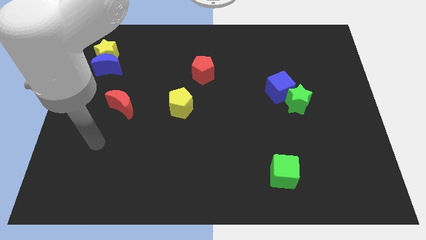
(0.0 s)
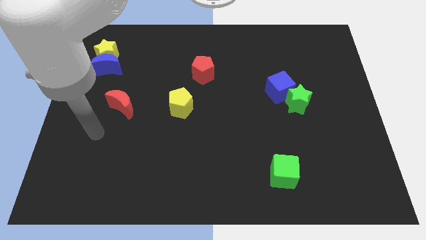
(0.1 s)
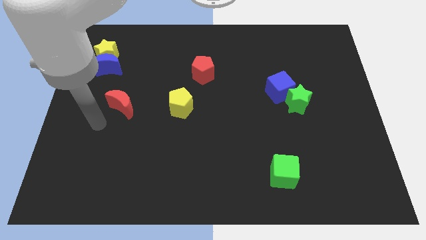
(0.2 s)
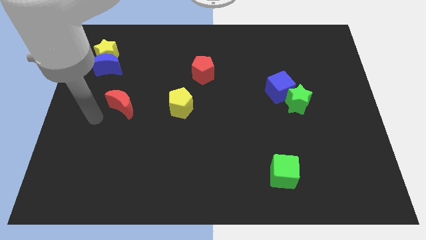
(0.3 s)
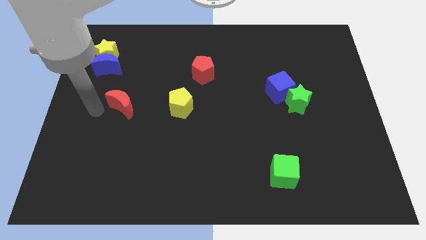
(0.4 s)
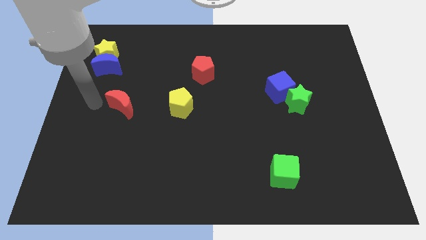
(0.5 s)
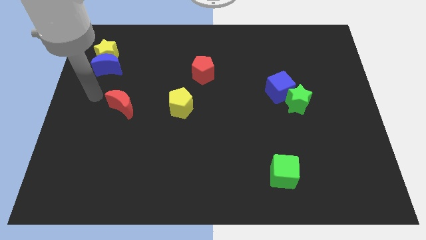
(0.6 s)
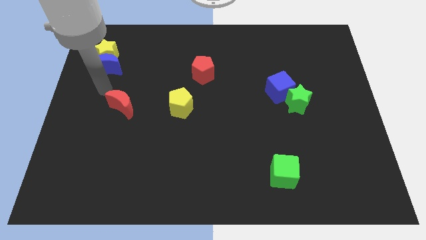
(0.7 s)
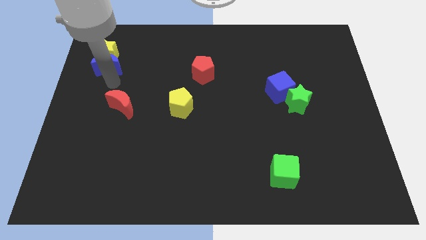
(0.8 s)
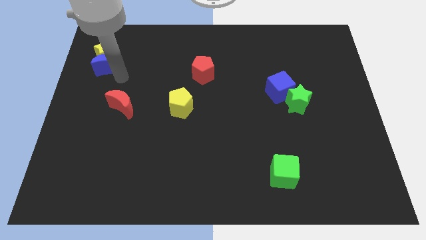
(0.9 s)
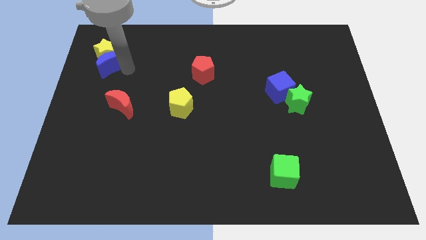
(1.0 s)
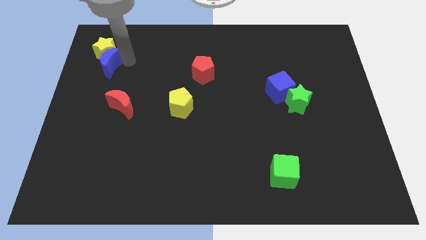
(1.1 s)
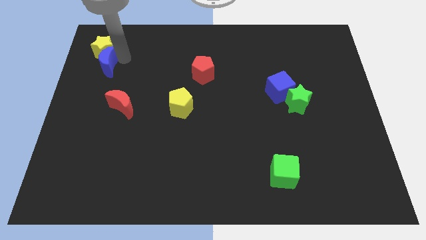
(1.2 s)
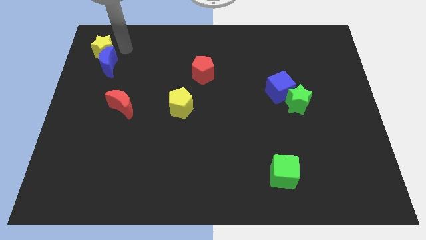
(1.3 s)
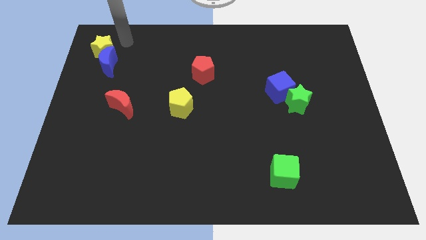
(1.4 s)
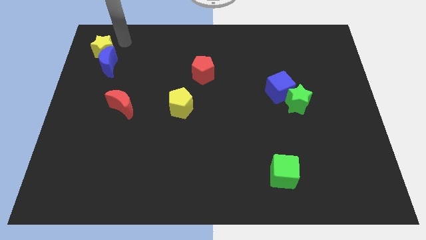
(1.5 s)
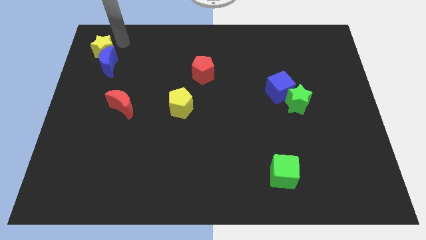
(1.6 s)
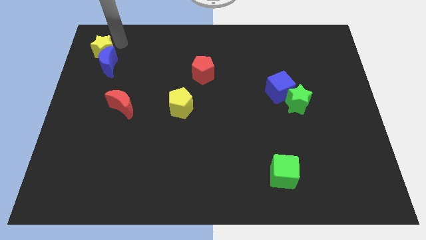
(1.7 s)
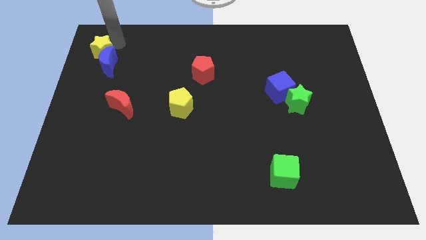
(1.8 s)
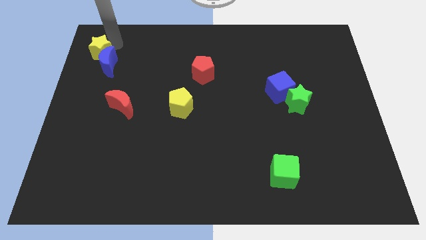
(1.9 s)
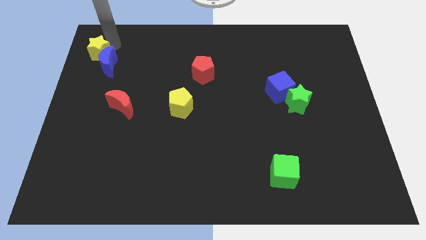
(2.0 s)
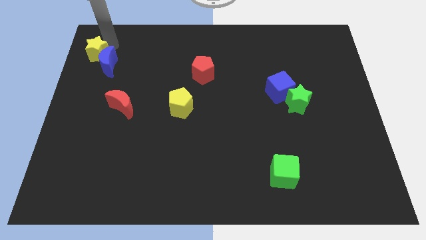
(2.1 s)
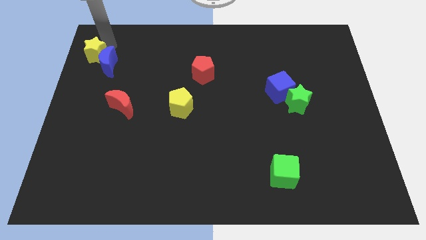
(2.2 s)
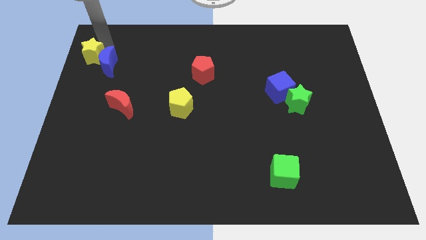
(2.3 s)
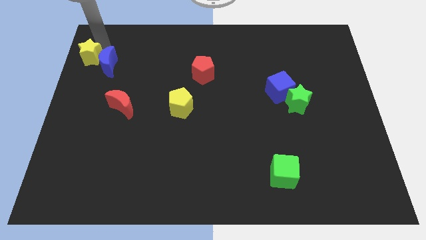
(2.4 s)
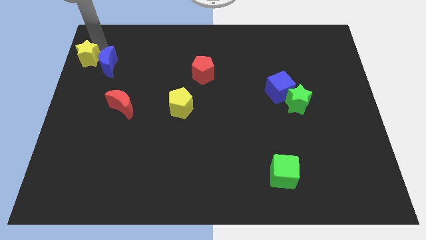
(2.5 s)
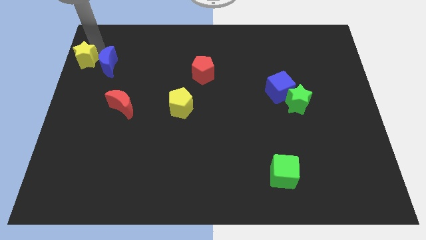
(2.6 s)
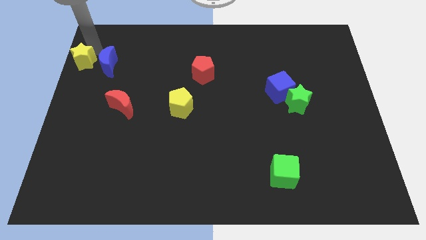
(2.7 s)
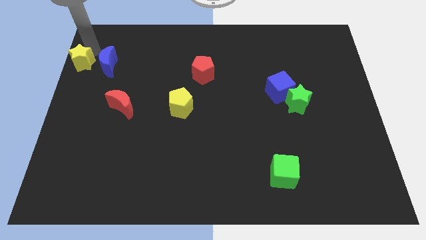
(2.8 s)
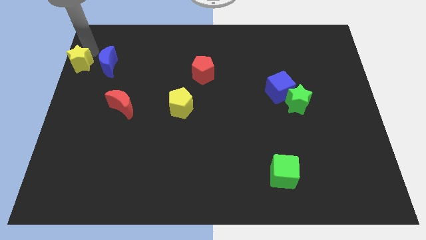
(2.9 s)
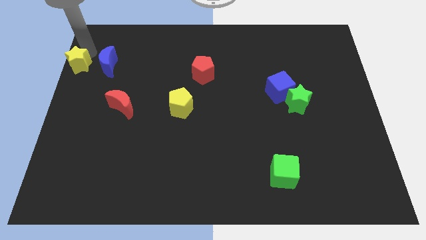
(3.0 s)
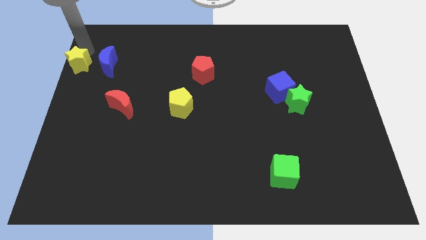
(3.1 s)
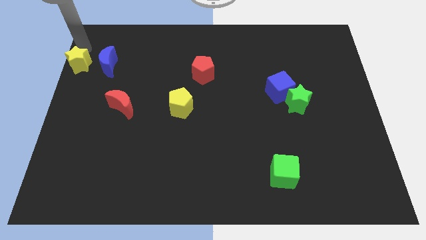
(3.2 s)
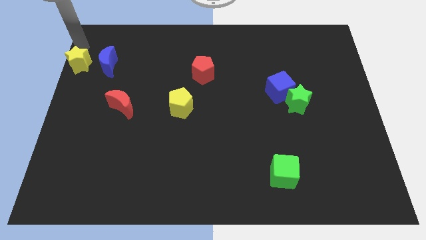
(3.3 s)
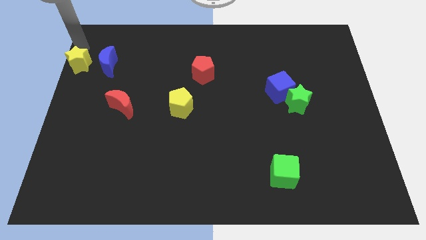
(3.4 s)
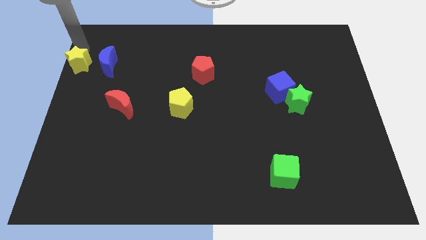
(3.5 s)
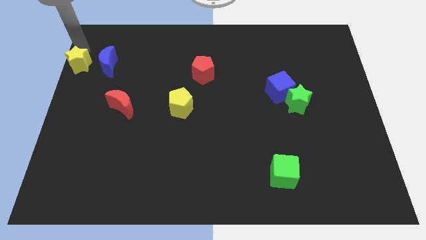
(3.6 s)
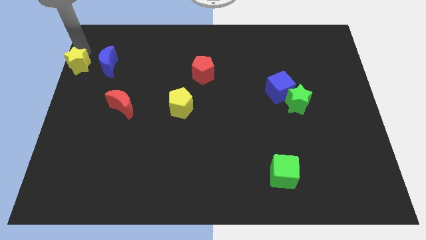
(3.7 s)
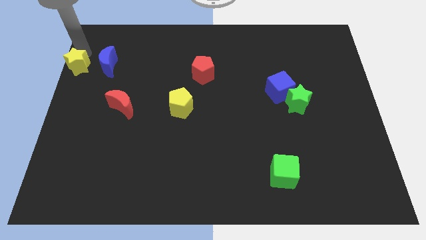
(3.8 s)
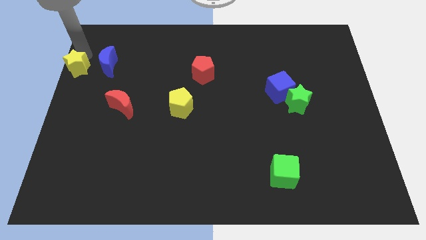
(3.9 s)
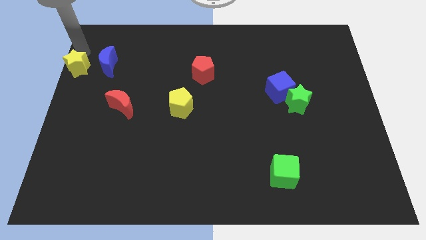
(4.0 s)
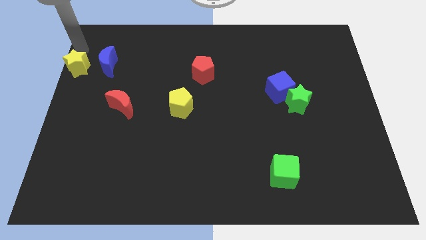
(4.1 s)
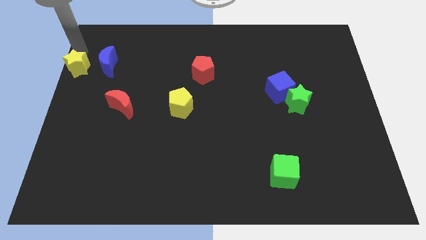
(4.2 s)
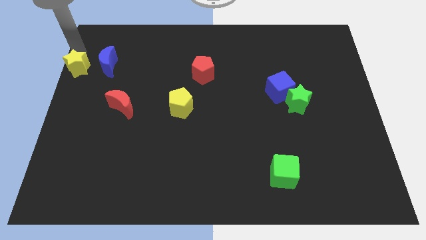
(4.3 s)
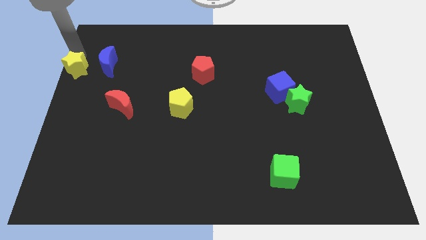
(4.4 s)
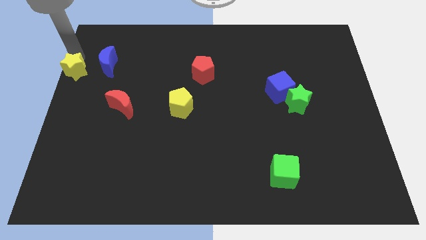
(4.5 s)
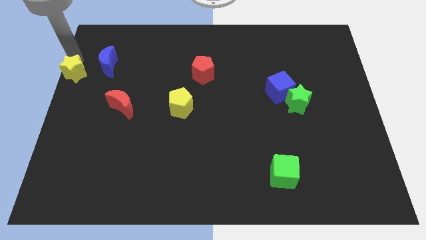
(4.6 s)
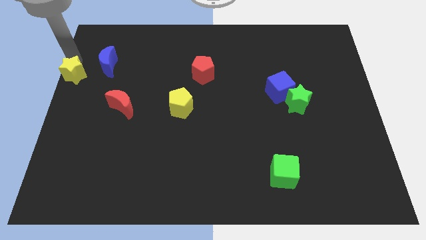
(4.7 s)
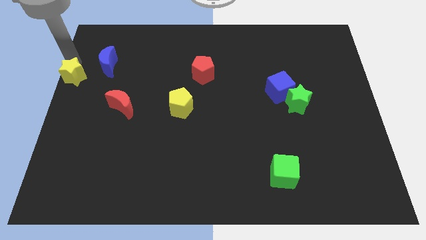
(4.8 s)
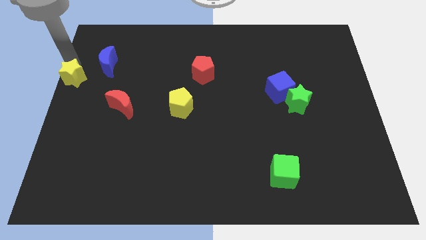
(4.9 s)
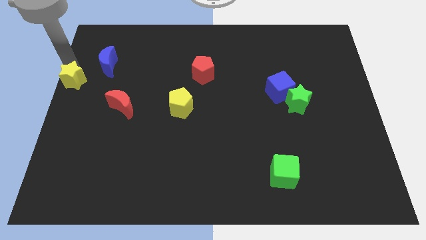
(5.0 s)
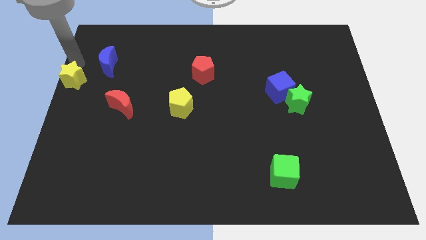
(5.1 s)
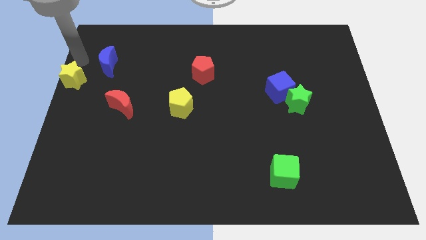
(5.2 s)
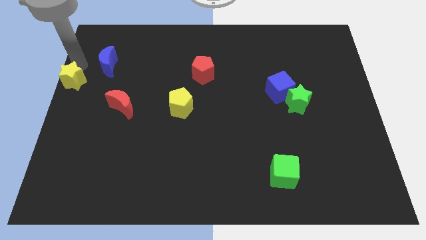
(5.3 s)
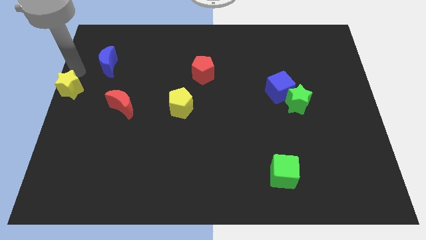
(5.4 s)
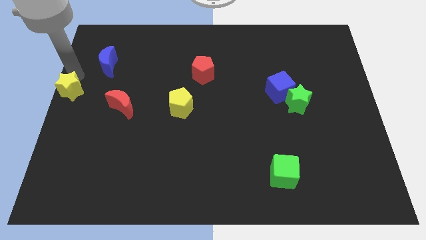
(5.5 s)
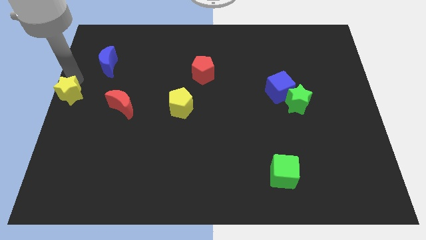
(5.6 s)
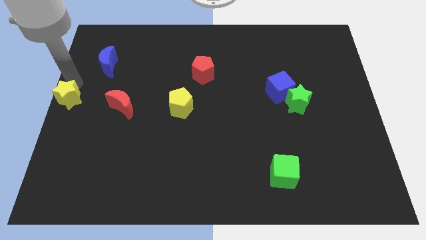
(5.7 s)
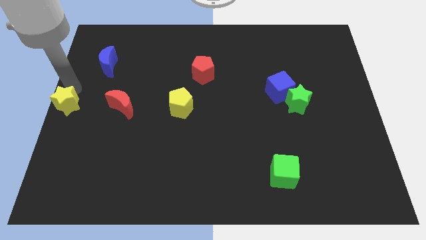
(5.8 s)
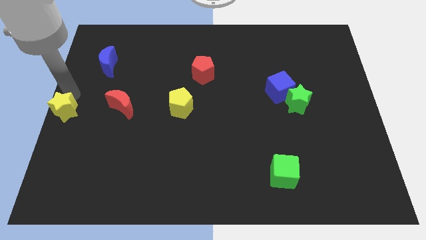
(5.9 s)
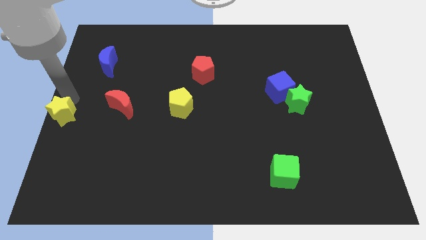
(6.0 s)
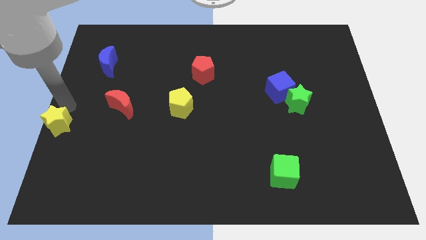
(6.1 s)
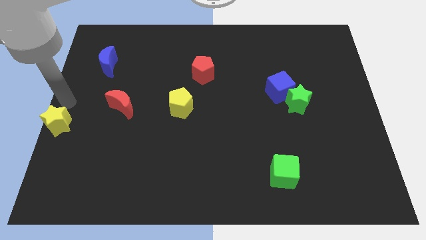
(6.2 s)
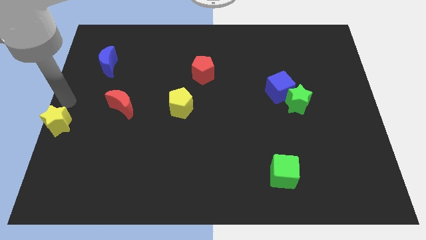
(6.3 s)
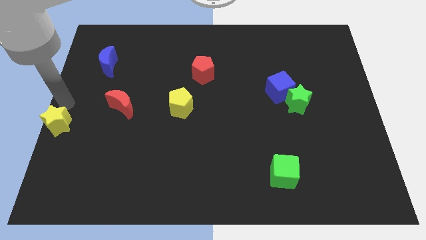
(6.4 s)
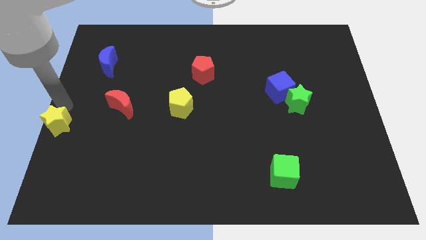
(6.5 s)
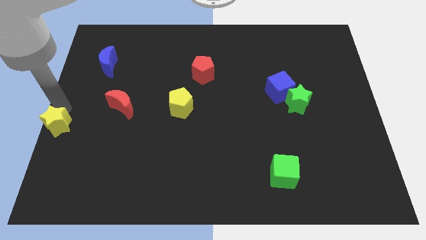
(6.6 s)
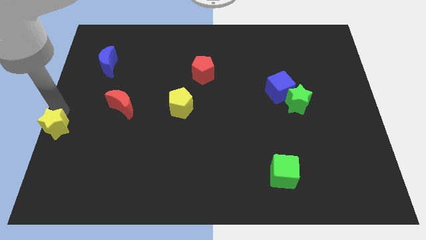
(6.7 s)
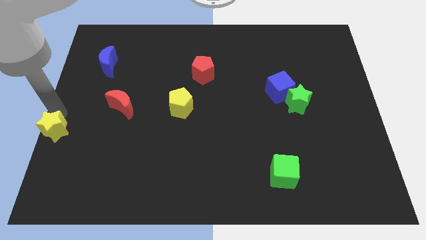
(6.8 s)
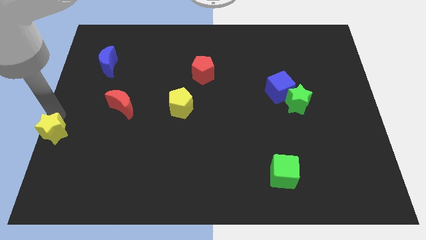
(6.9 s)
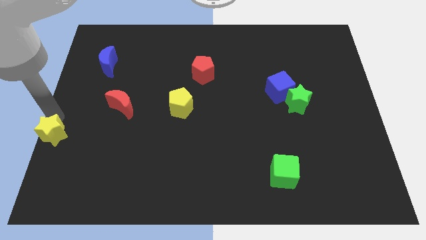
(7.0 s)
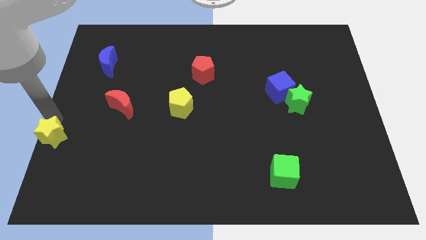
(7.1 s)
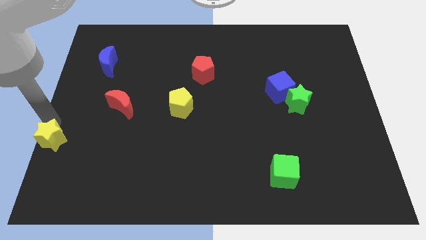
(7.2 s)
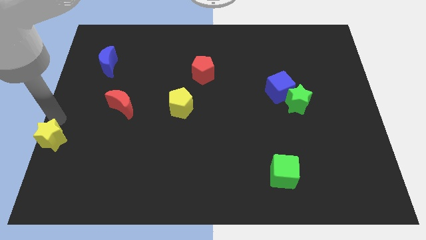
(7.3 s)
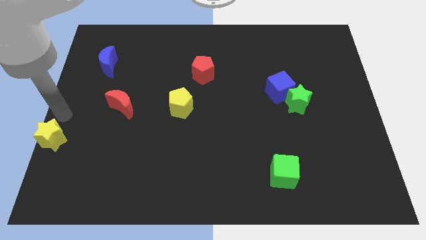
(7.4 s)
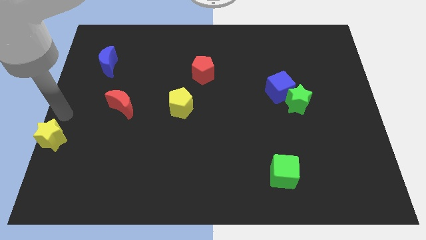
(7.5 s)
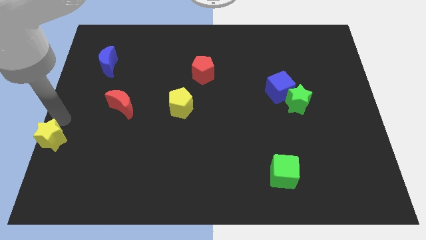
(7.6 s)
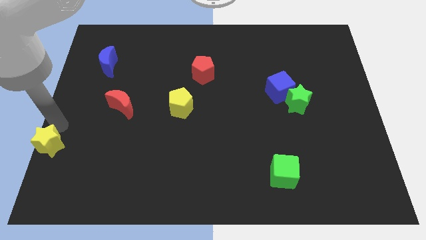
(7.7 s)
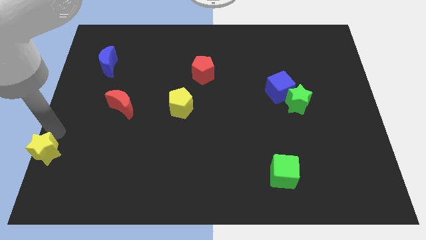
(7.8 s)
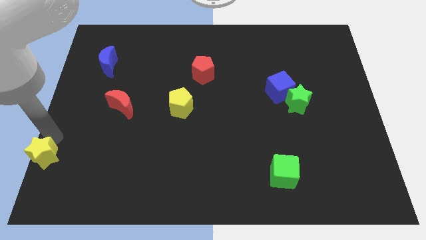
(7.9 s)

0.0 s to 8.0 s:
move the yellow star to the lower left corner
